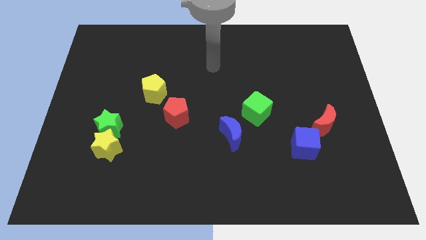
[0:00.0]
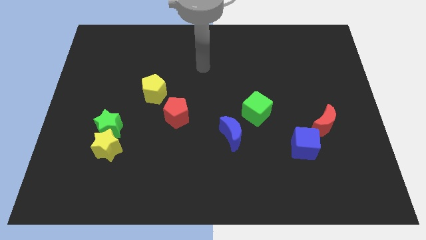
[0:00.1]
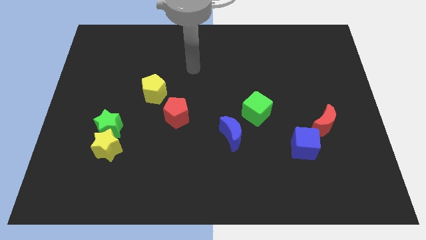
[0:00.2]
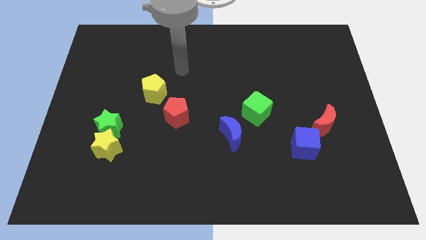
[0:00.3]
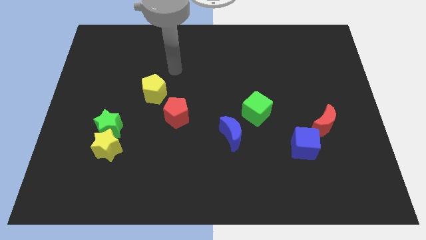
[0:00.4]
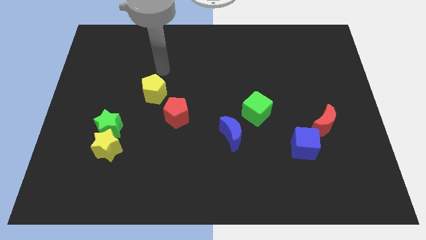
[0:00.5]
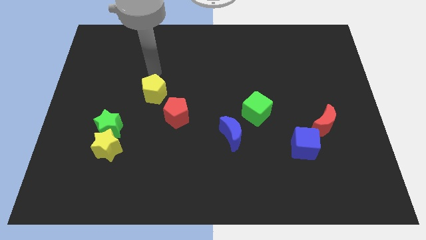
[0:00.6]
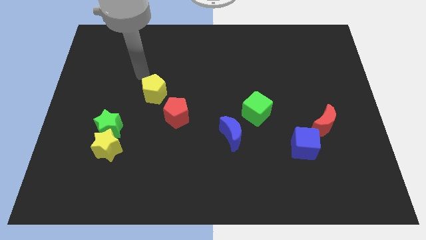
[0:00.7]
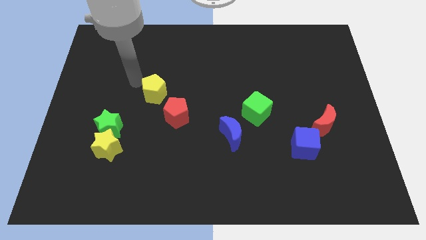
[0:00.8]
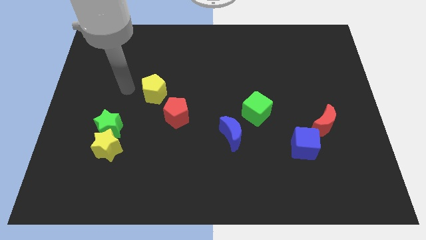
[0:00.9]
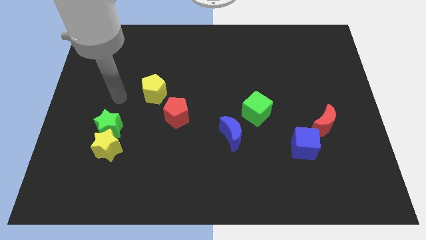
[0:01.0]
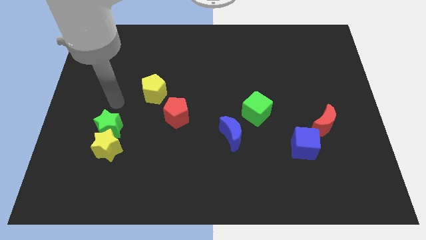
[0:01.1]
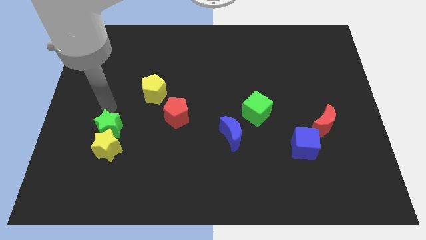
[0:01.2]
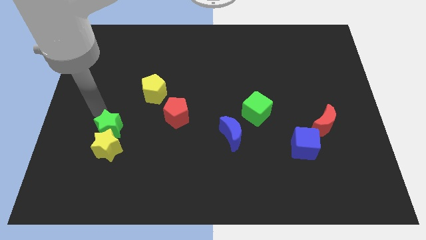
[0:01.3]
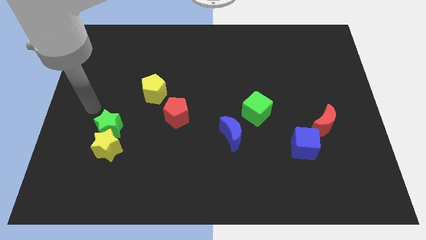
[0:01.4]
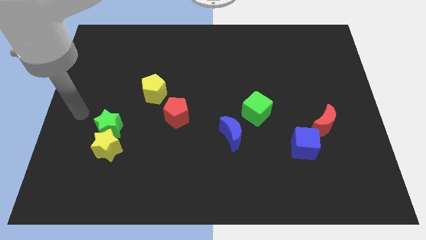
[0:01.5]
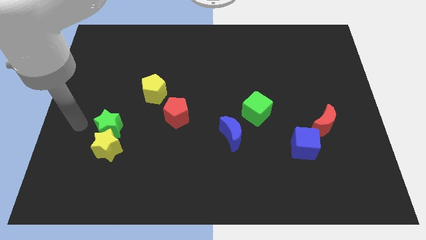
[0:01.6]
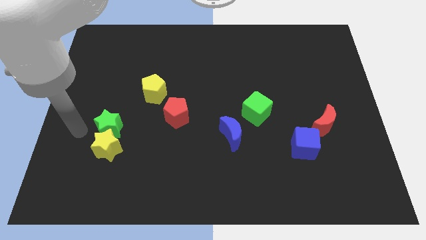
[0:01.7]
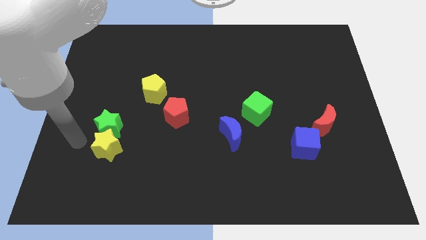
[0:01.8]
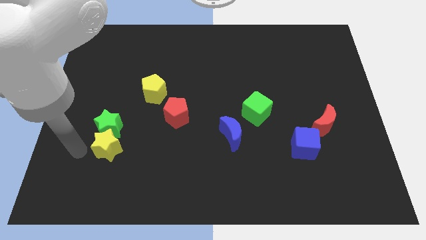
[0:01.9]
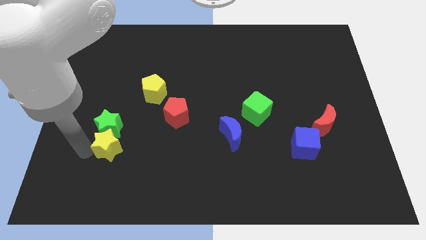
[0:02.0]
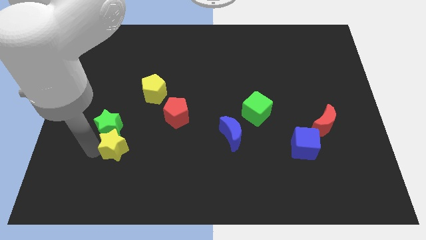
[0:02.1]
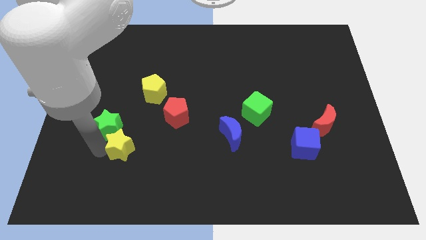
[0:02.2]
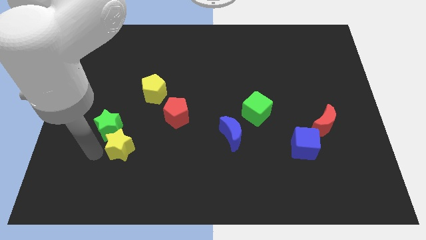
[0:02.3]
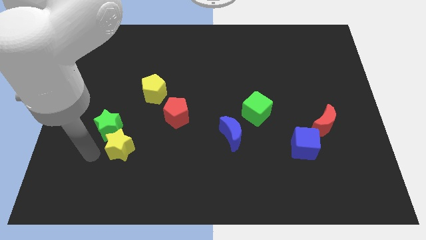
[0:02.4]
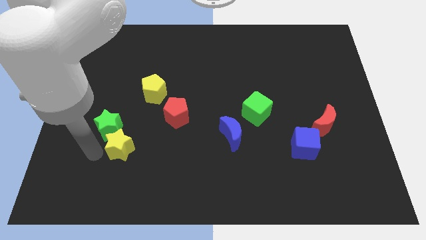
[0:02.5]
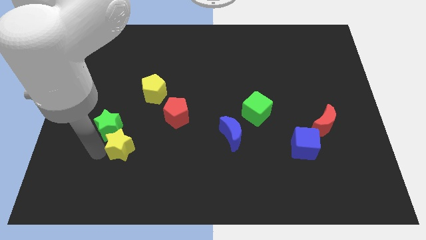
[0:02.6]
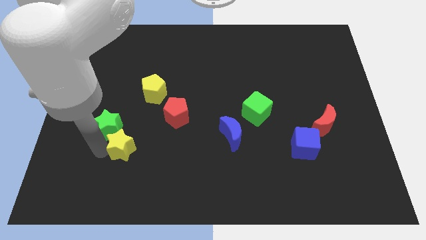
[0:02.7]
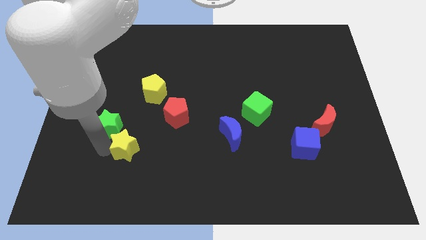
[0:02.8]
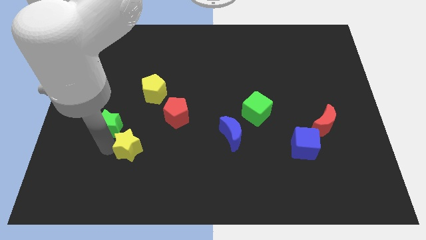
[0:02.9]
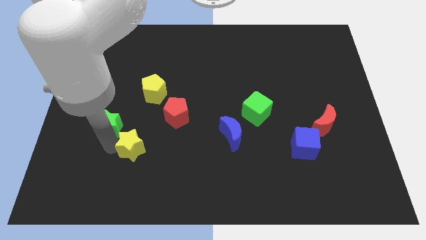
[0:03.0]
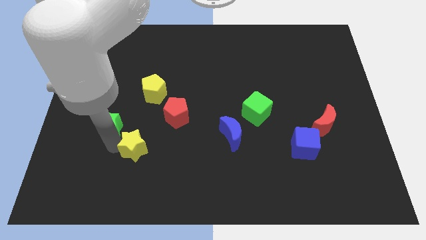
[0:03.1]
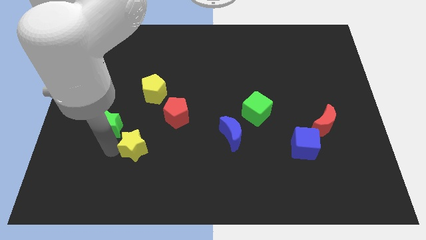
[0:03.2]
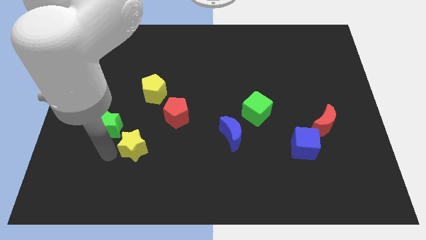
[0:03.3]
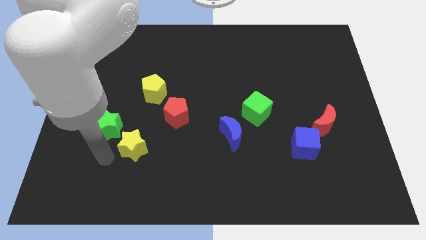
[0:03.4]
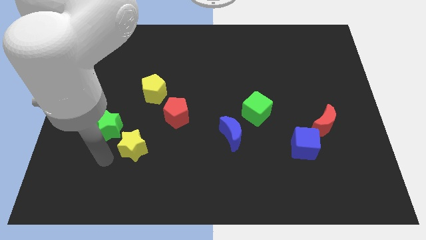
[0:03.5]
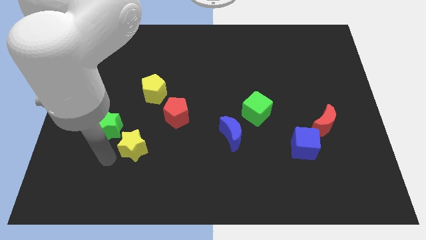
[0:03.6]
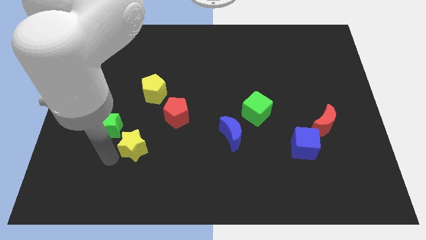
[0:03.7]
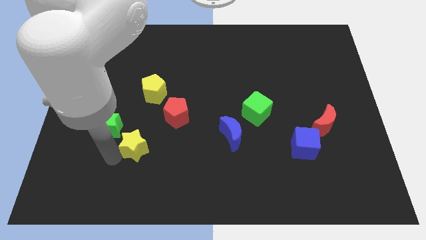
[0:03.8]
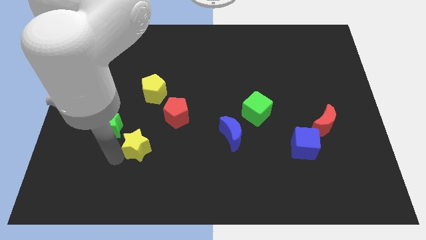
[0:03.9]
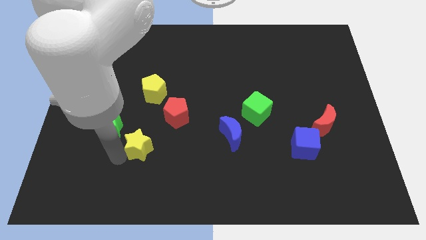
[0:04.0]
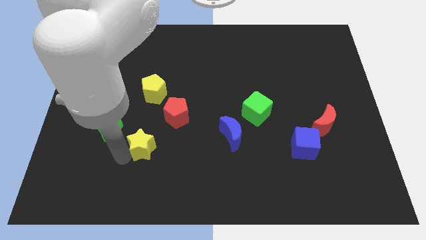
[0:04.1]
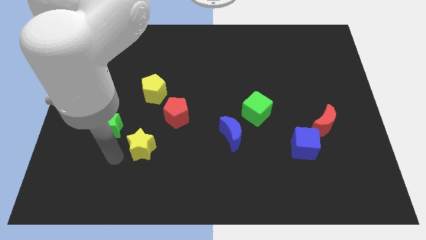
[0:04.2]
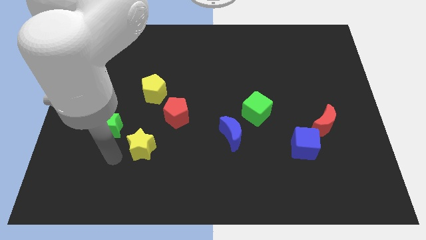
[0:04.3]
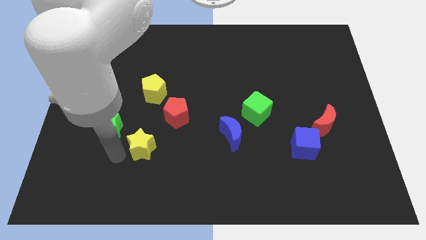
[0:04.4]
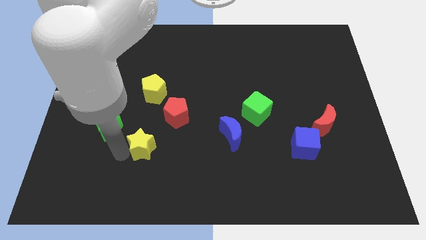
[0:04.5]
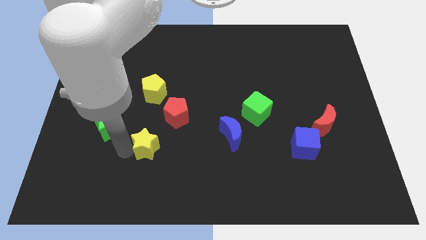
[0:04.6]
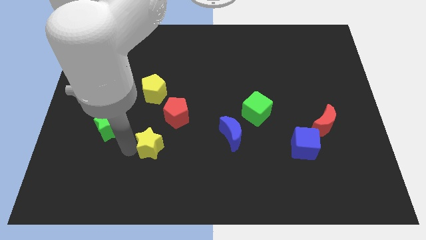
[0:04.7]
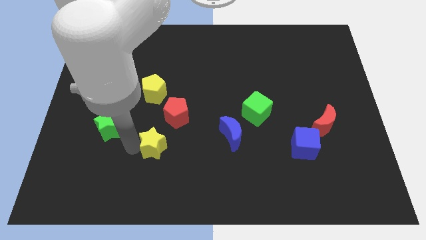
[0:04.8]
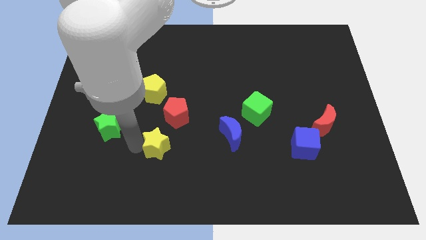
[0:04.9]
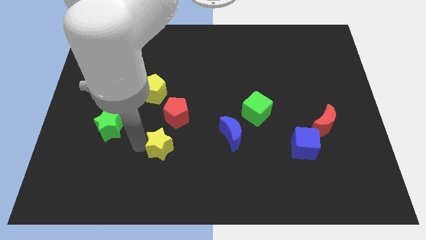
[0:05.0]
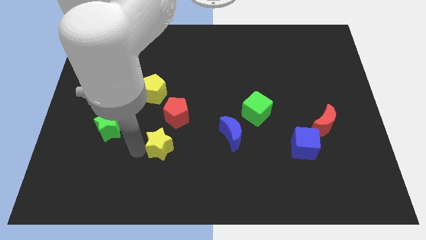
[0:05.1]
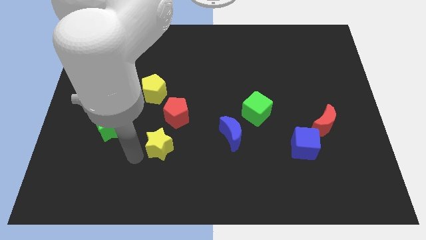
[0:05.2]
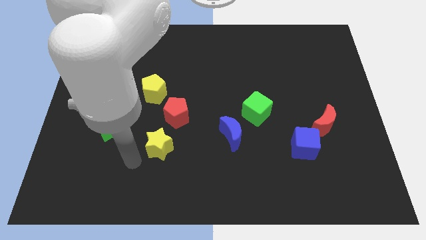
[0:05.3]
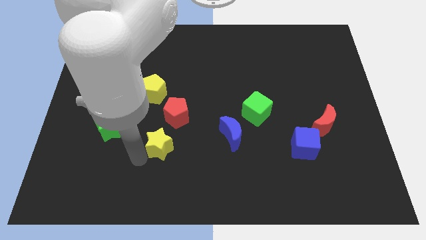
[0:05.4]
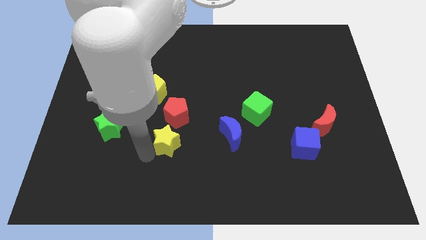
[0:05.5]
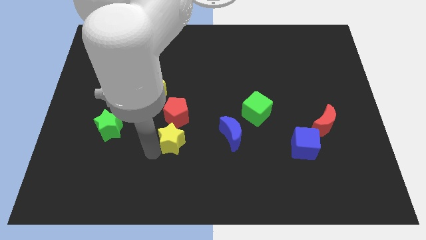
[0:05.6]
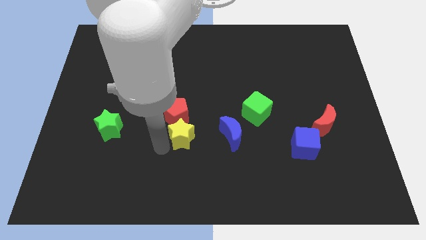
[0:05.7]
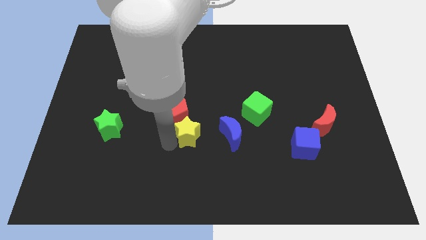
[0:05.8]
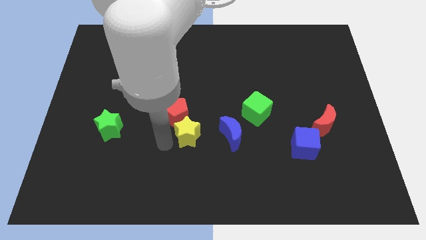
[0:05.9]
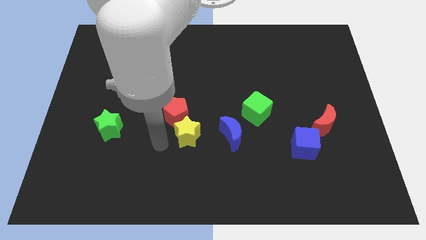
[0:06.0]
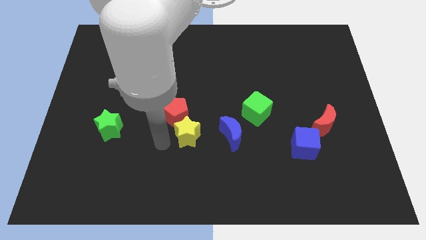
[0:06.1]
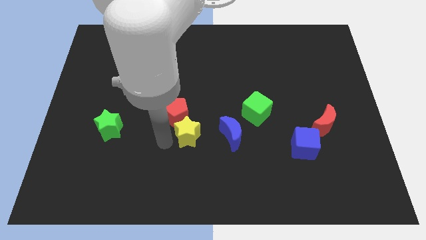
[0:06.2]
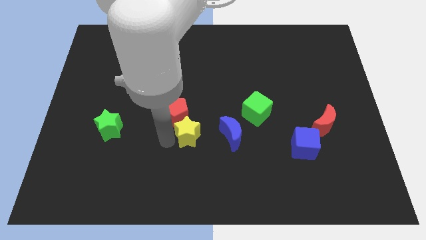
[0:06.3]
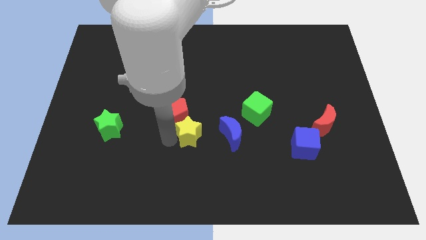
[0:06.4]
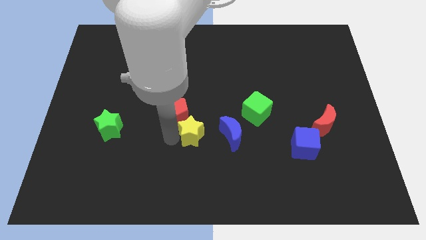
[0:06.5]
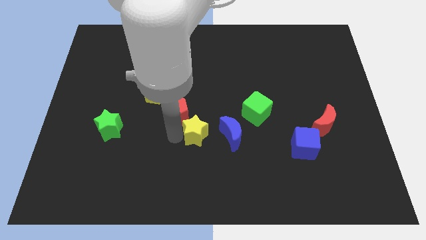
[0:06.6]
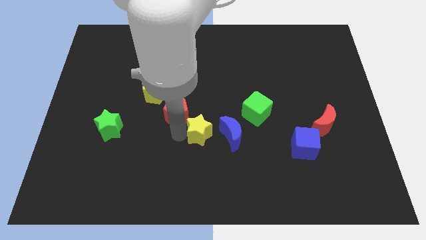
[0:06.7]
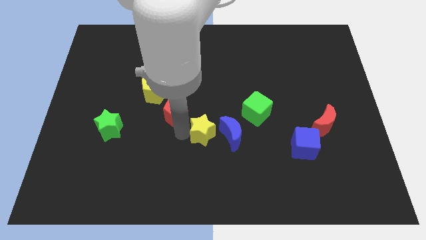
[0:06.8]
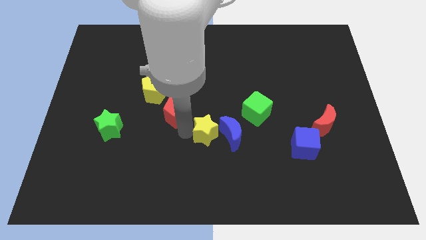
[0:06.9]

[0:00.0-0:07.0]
push the yellow star close to the blue moon
